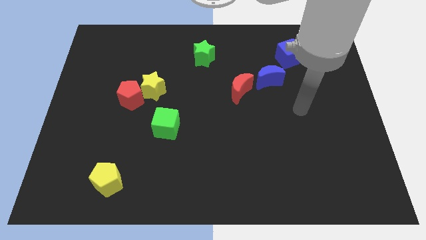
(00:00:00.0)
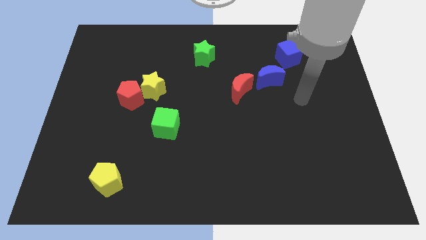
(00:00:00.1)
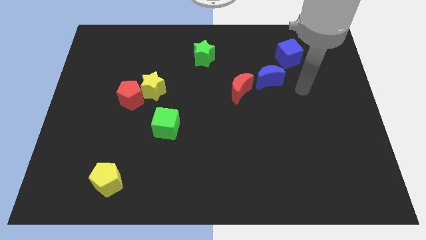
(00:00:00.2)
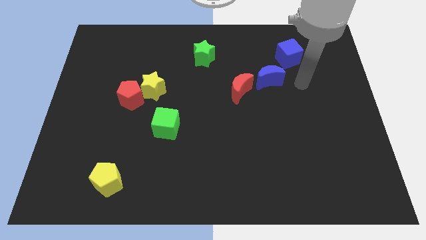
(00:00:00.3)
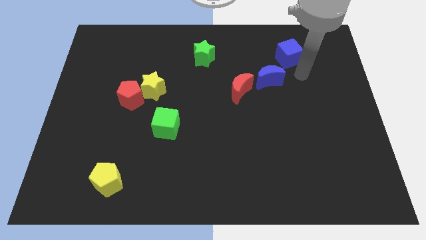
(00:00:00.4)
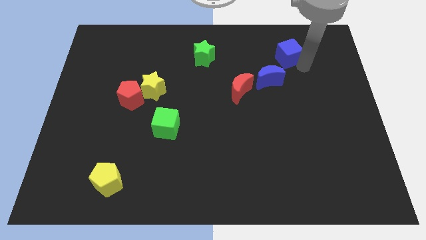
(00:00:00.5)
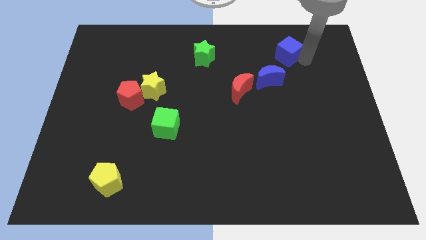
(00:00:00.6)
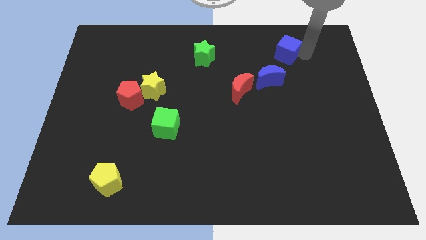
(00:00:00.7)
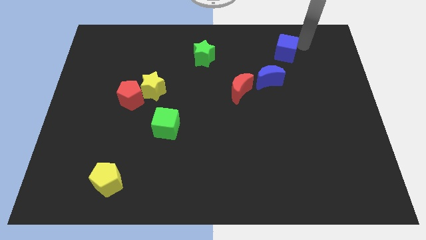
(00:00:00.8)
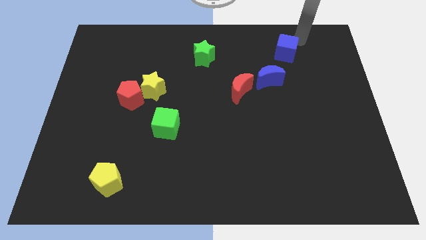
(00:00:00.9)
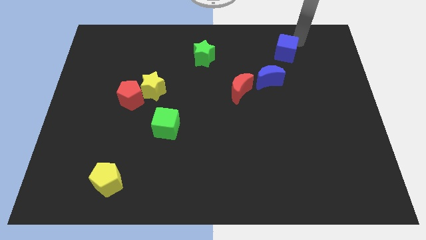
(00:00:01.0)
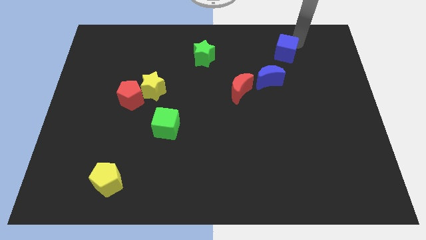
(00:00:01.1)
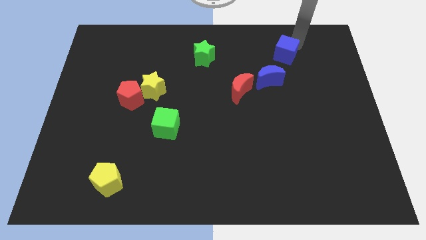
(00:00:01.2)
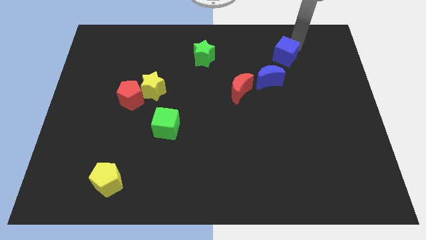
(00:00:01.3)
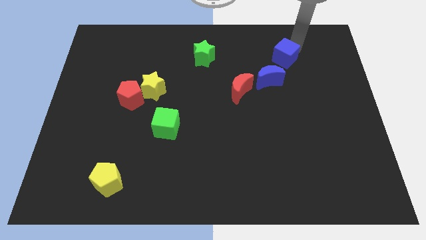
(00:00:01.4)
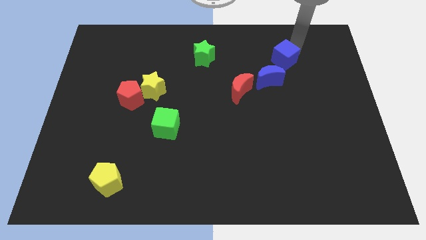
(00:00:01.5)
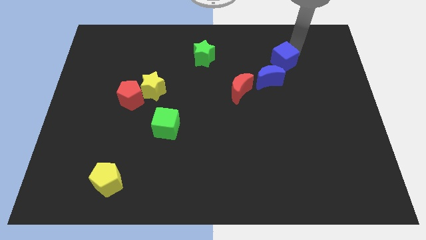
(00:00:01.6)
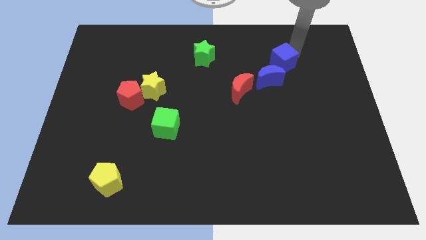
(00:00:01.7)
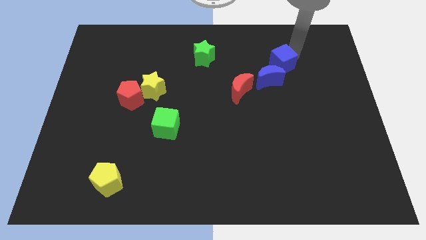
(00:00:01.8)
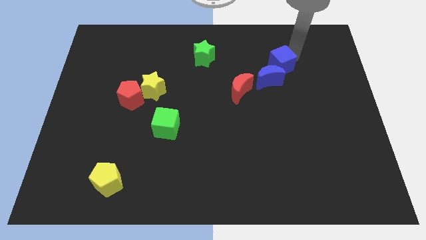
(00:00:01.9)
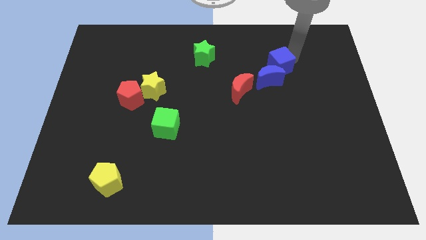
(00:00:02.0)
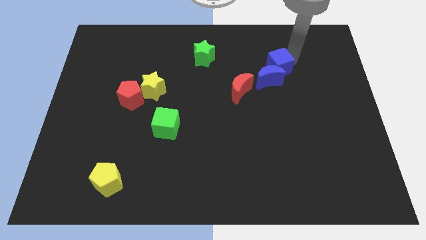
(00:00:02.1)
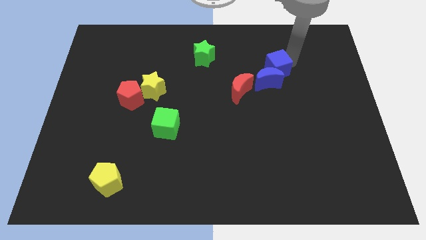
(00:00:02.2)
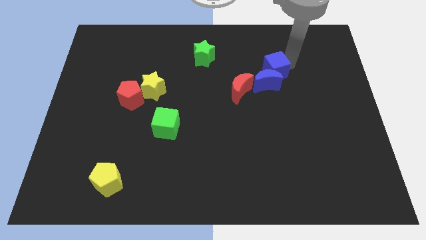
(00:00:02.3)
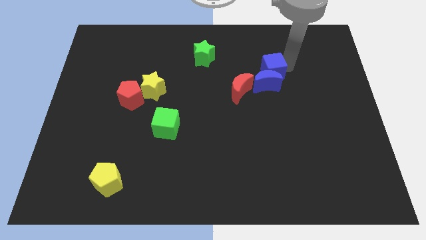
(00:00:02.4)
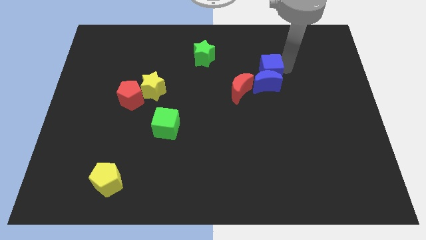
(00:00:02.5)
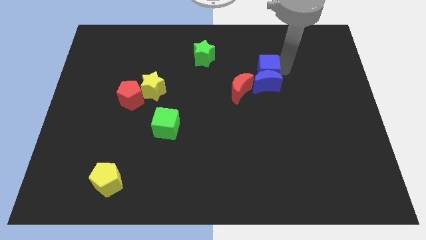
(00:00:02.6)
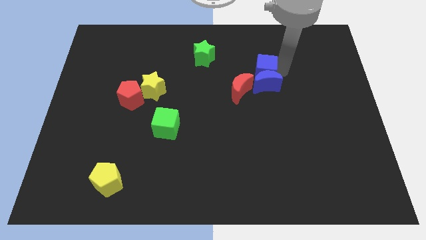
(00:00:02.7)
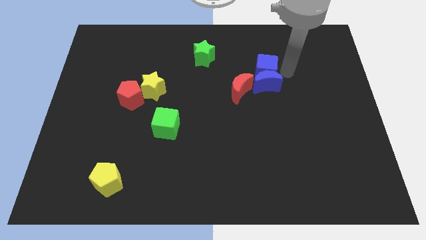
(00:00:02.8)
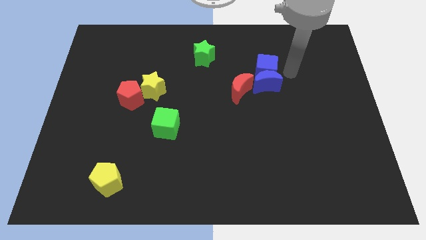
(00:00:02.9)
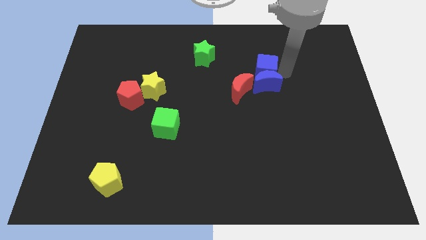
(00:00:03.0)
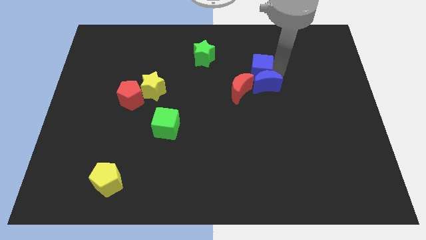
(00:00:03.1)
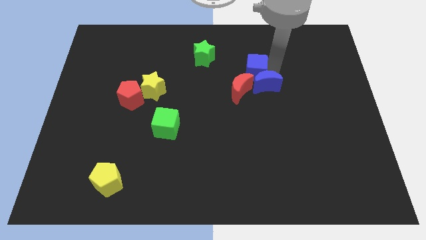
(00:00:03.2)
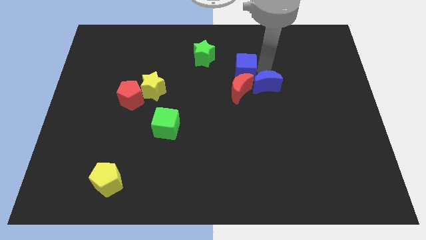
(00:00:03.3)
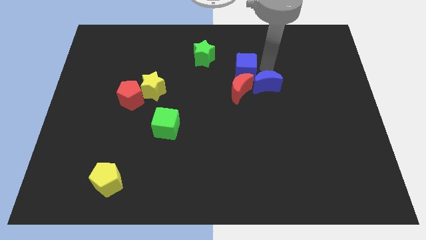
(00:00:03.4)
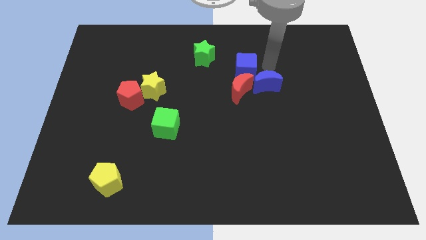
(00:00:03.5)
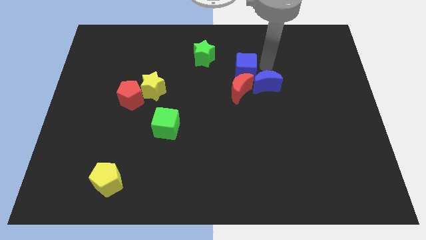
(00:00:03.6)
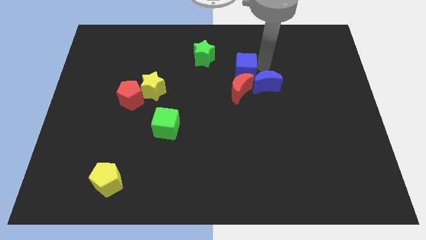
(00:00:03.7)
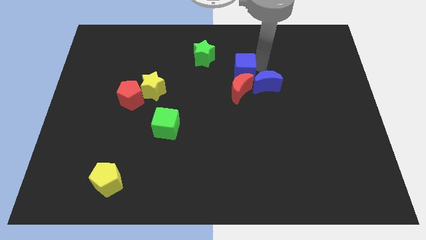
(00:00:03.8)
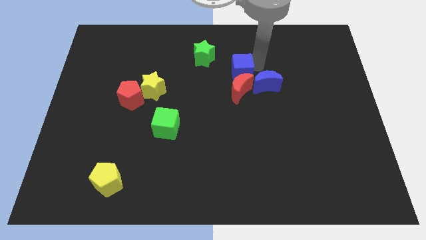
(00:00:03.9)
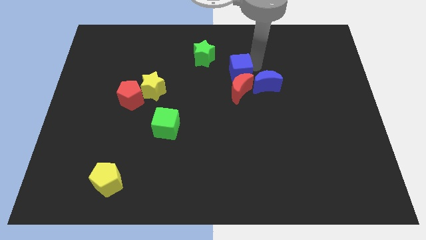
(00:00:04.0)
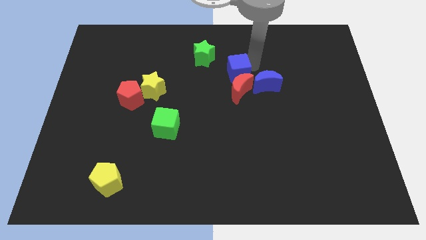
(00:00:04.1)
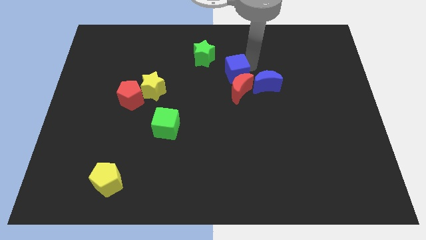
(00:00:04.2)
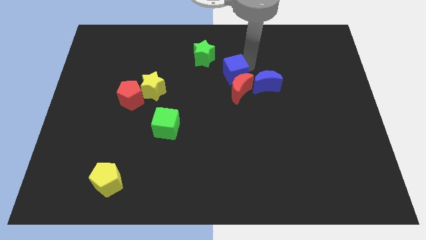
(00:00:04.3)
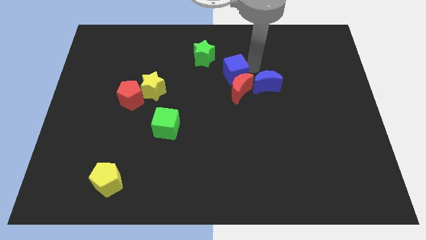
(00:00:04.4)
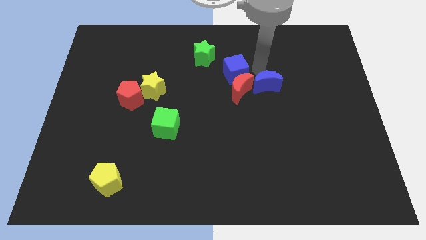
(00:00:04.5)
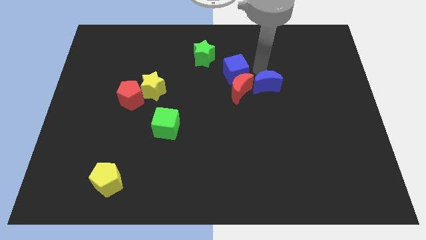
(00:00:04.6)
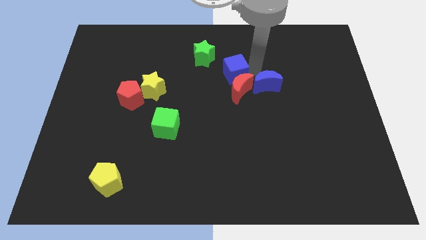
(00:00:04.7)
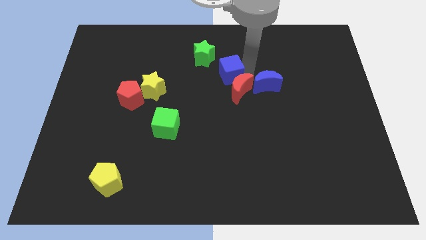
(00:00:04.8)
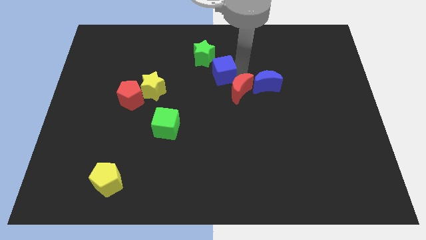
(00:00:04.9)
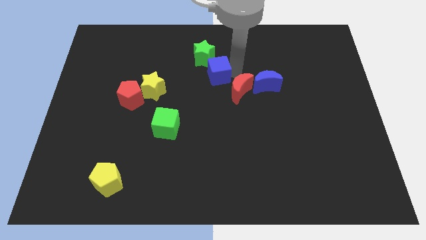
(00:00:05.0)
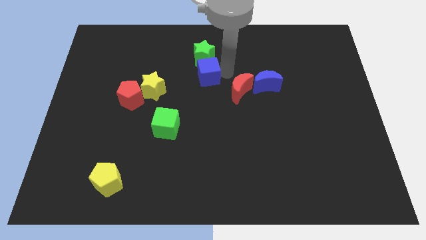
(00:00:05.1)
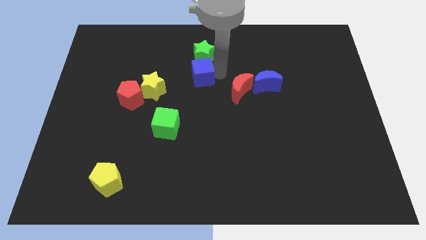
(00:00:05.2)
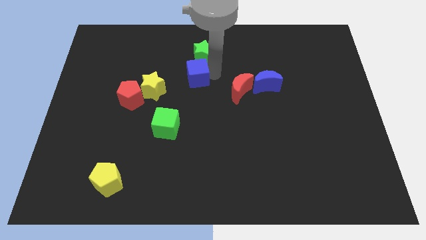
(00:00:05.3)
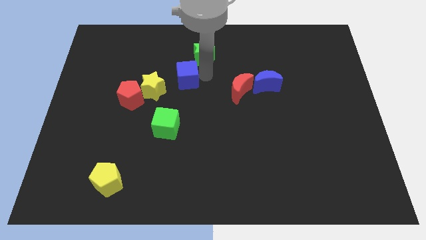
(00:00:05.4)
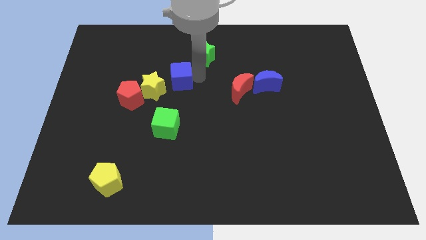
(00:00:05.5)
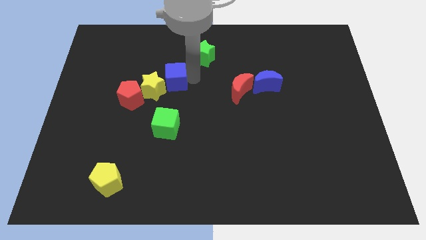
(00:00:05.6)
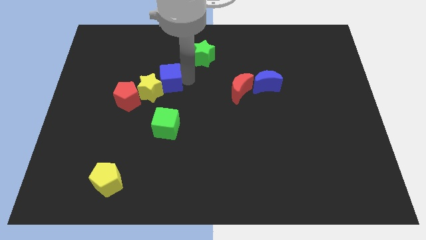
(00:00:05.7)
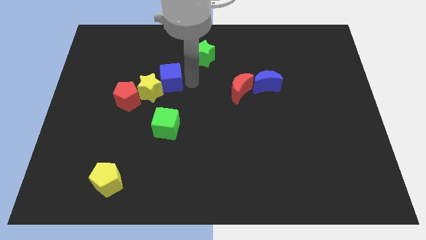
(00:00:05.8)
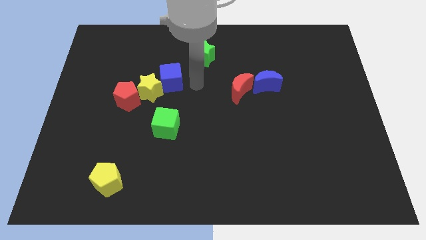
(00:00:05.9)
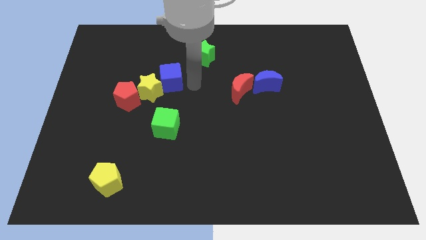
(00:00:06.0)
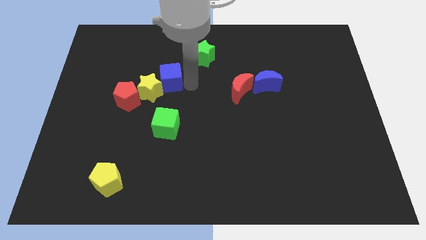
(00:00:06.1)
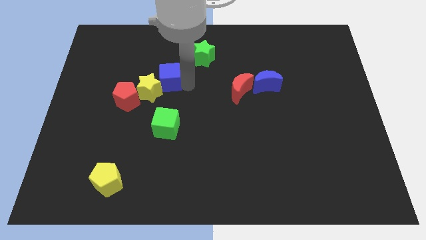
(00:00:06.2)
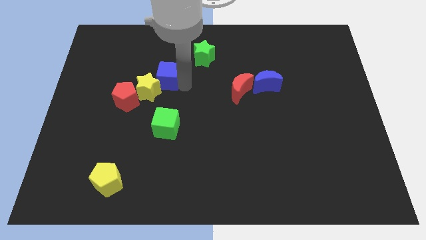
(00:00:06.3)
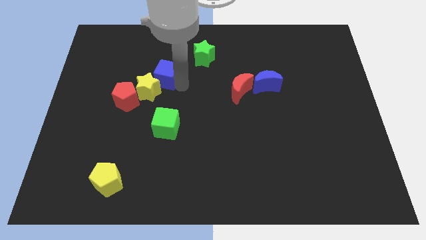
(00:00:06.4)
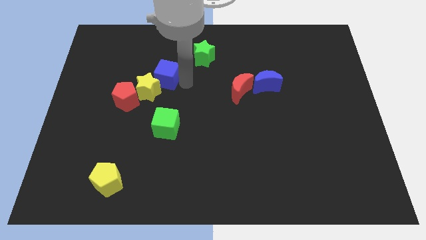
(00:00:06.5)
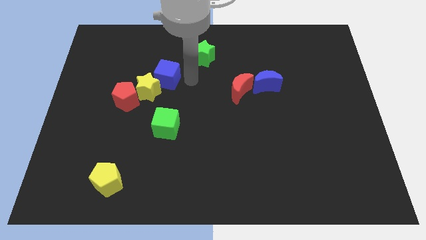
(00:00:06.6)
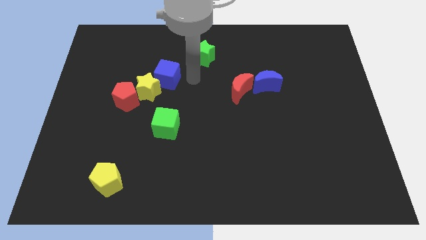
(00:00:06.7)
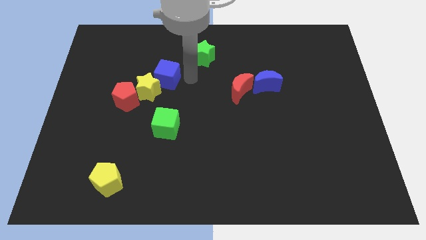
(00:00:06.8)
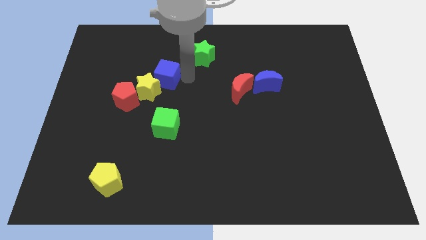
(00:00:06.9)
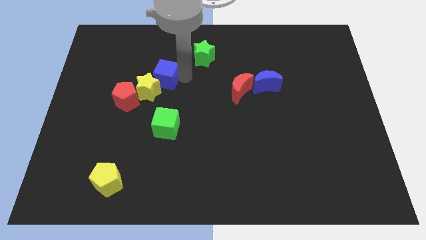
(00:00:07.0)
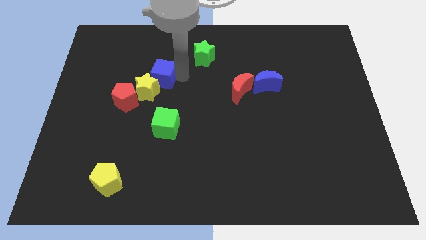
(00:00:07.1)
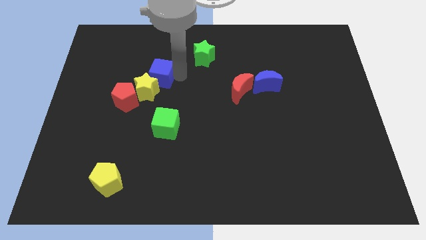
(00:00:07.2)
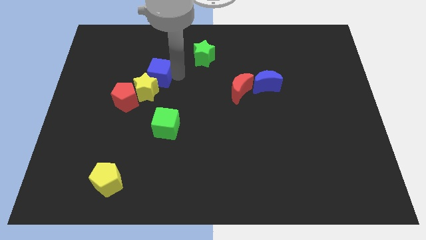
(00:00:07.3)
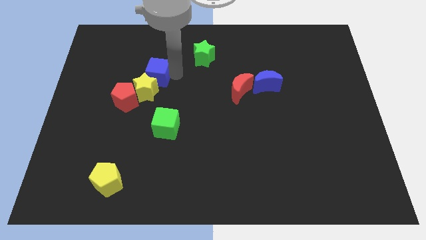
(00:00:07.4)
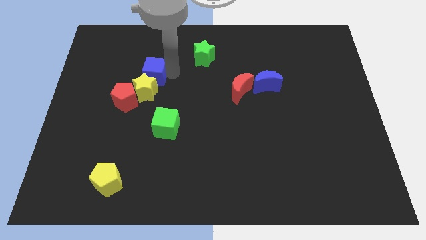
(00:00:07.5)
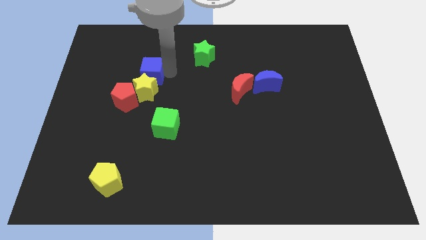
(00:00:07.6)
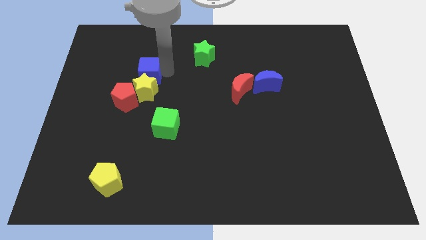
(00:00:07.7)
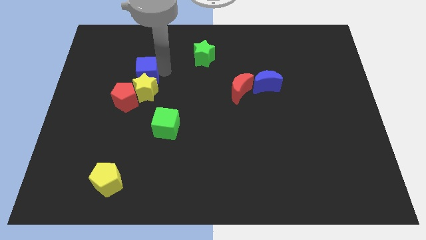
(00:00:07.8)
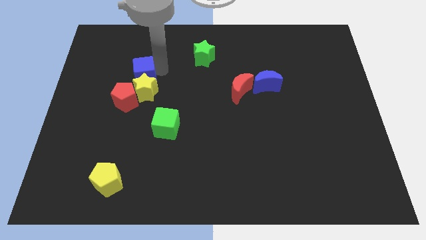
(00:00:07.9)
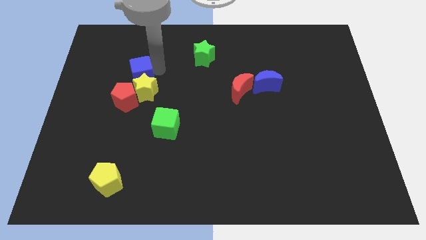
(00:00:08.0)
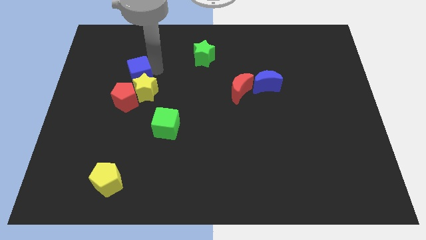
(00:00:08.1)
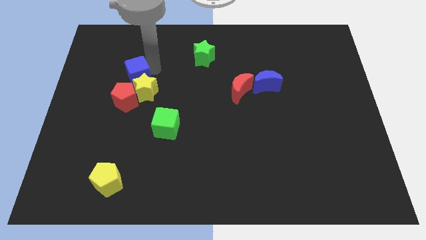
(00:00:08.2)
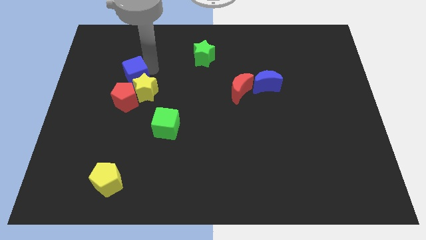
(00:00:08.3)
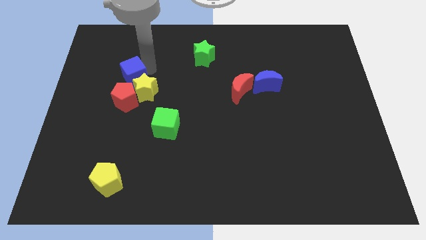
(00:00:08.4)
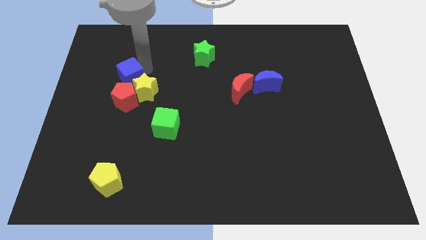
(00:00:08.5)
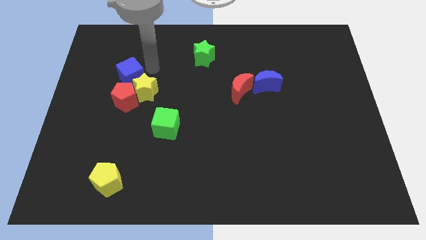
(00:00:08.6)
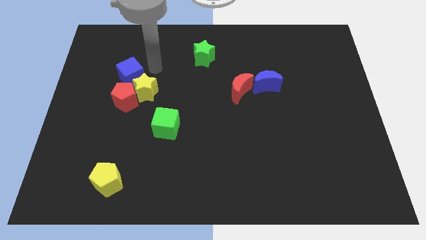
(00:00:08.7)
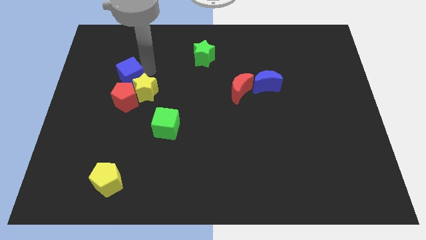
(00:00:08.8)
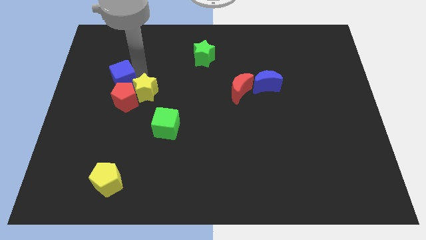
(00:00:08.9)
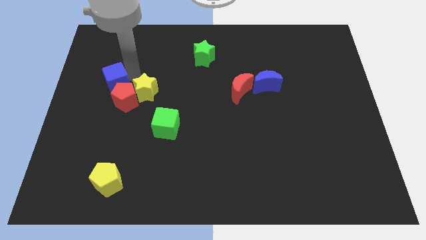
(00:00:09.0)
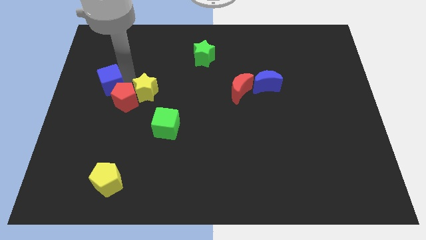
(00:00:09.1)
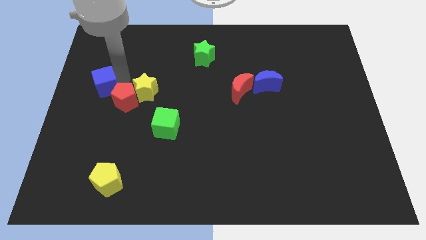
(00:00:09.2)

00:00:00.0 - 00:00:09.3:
move the blue cube to the left side of the board
